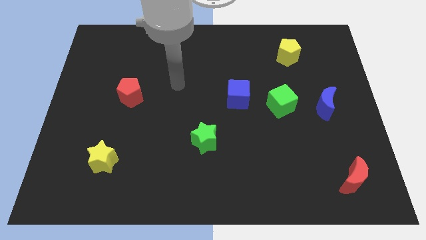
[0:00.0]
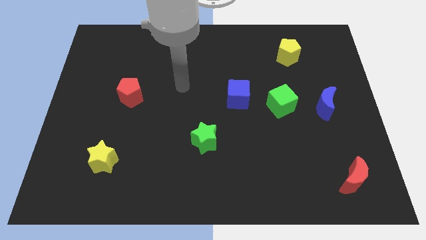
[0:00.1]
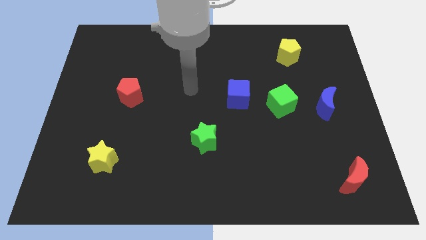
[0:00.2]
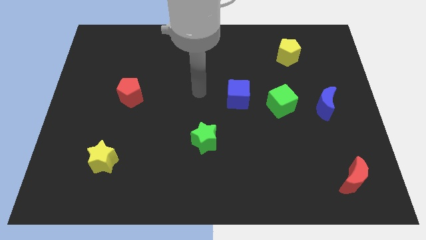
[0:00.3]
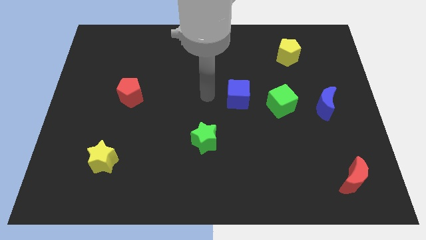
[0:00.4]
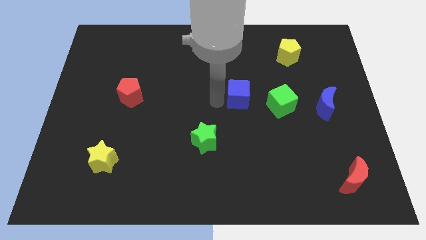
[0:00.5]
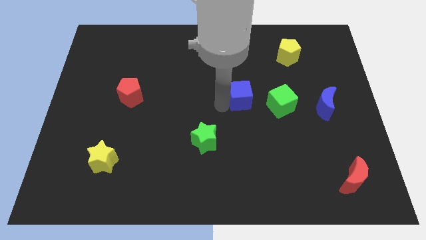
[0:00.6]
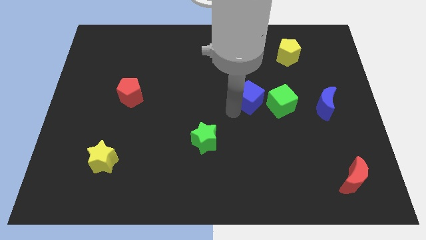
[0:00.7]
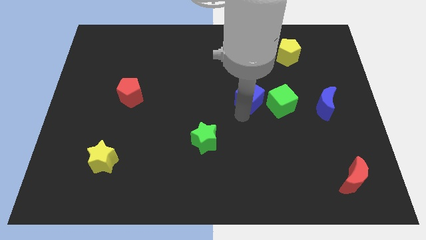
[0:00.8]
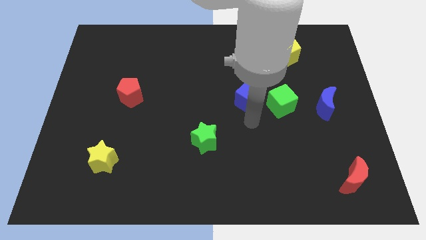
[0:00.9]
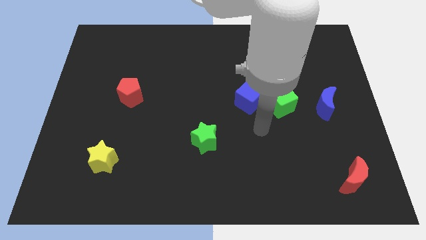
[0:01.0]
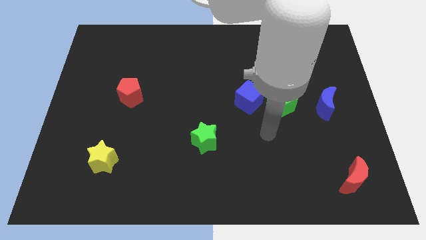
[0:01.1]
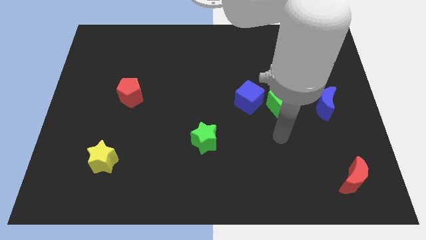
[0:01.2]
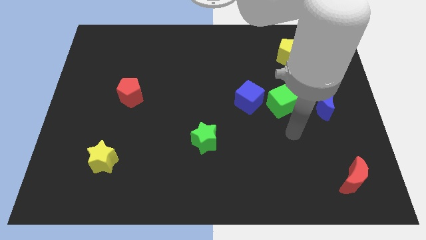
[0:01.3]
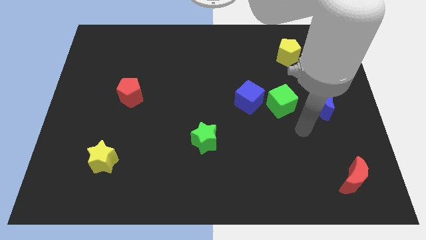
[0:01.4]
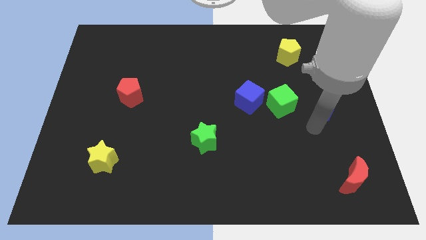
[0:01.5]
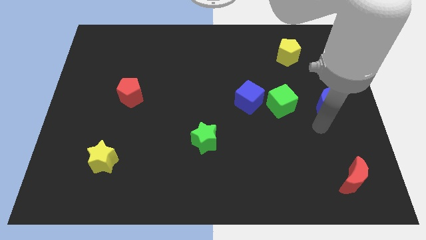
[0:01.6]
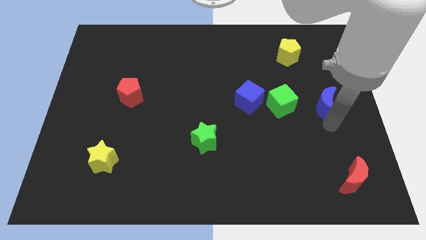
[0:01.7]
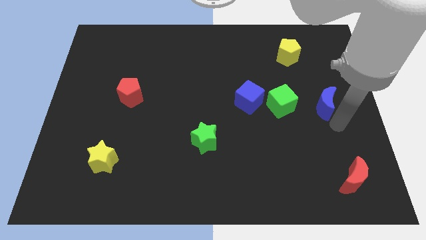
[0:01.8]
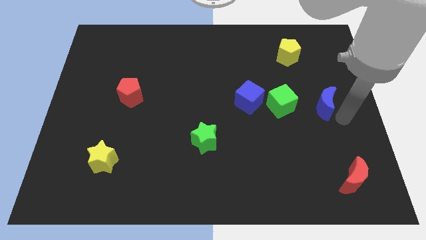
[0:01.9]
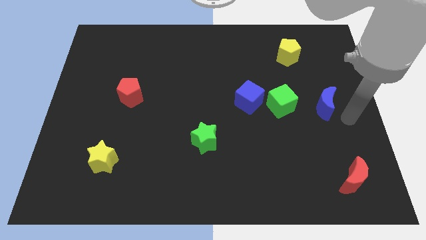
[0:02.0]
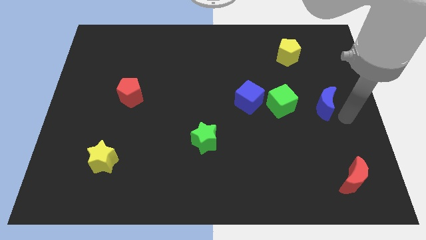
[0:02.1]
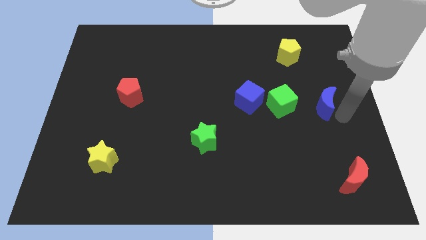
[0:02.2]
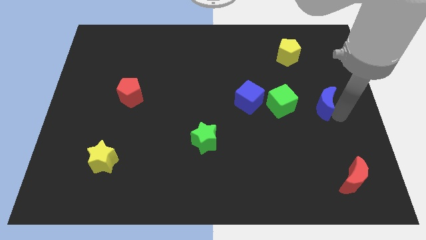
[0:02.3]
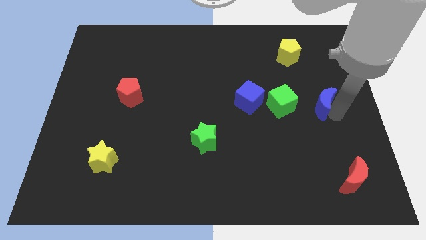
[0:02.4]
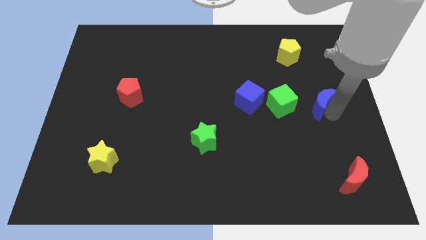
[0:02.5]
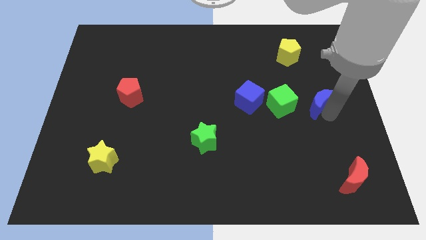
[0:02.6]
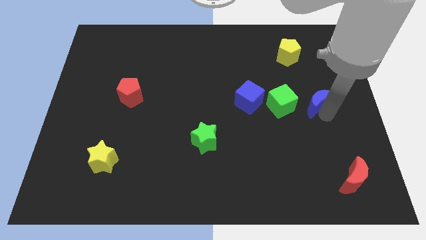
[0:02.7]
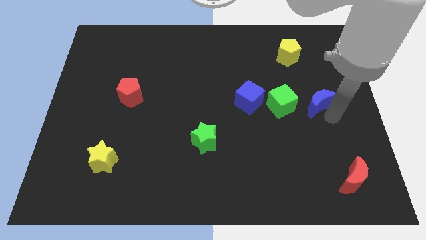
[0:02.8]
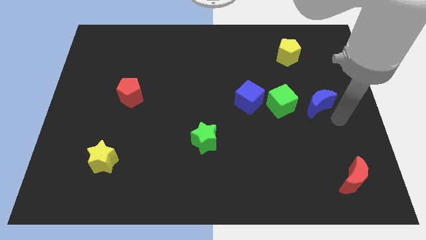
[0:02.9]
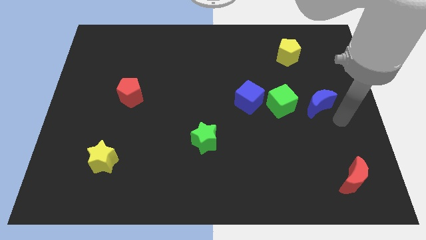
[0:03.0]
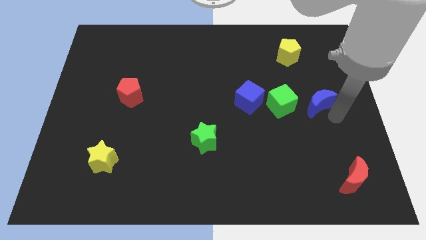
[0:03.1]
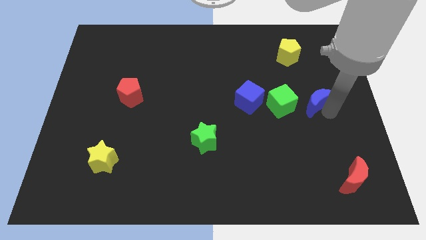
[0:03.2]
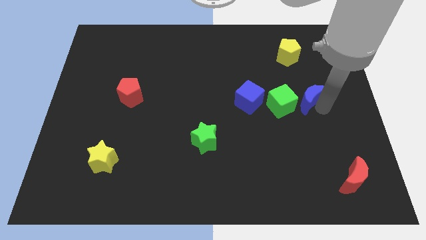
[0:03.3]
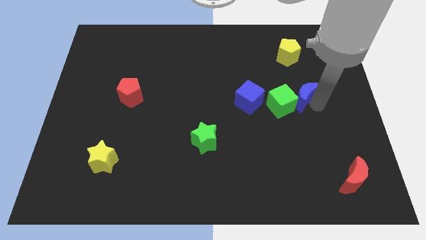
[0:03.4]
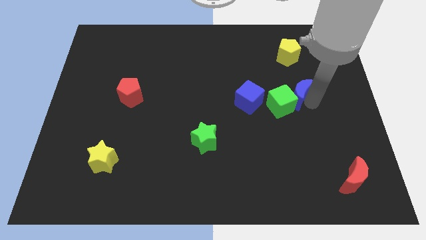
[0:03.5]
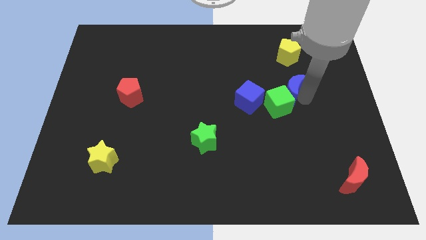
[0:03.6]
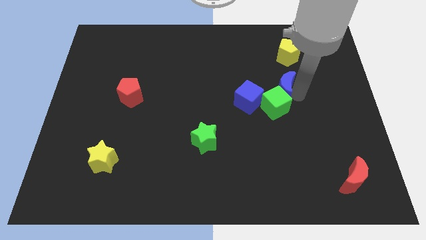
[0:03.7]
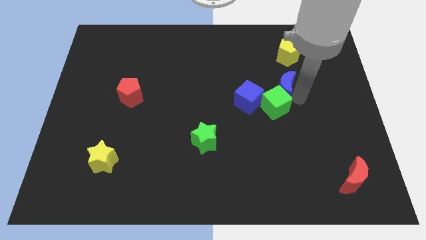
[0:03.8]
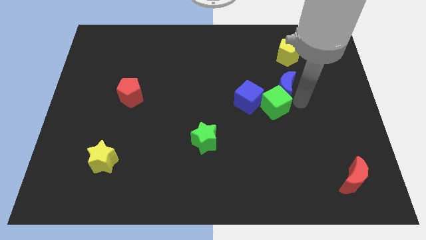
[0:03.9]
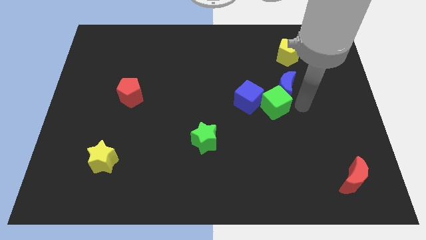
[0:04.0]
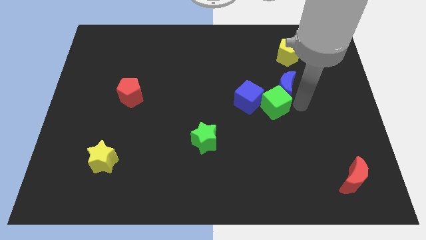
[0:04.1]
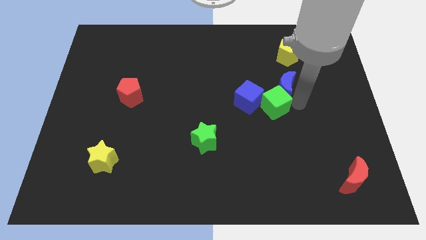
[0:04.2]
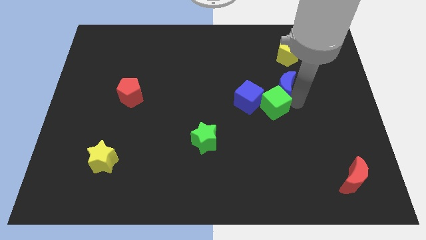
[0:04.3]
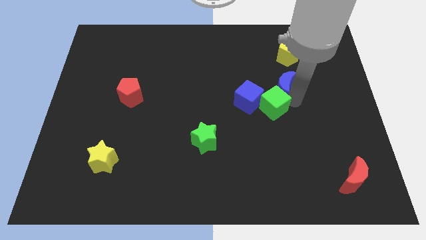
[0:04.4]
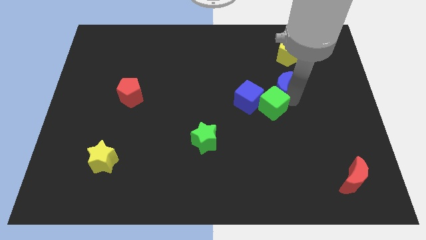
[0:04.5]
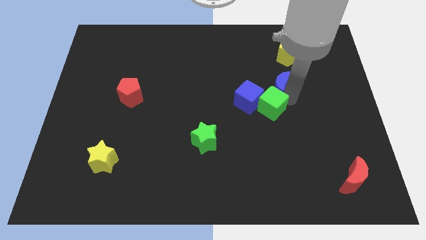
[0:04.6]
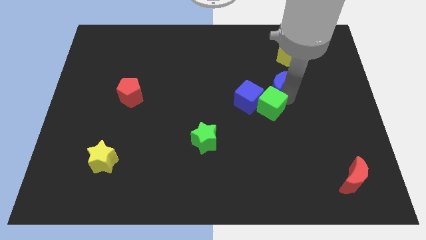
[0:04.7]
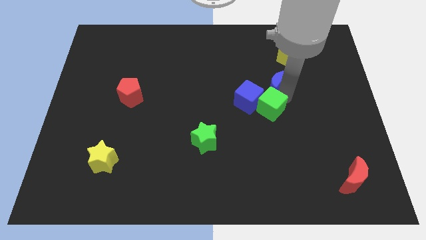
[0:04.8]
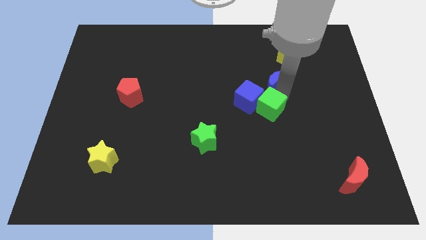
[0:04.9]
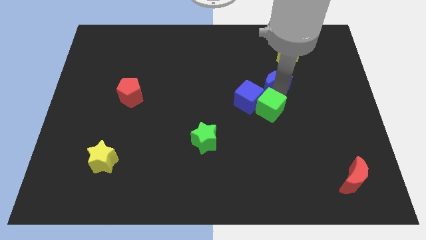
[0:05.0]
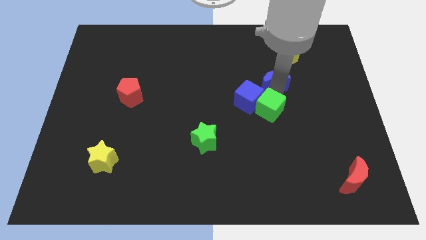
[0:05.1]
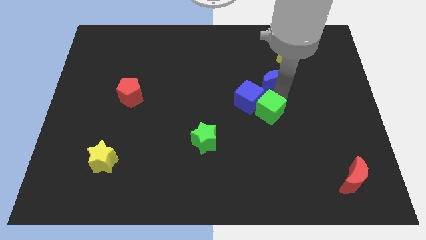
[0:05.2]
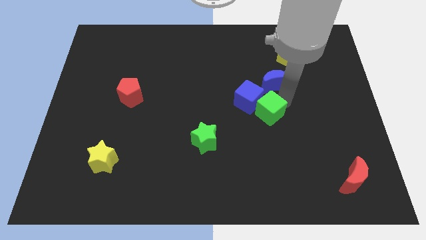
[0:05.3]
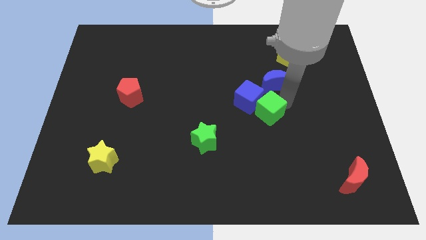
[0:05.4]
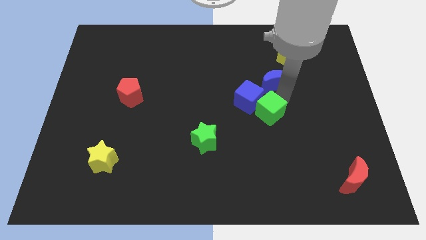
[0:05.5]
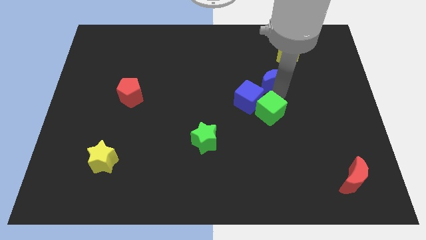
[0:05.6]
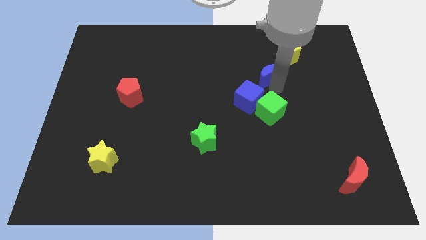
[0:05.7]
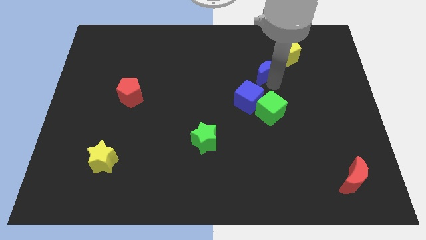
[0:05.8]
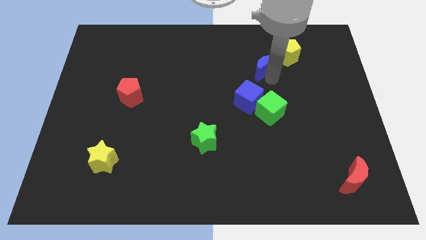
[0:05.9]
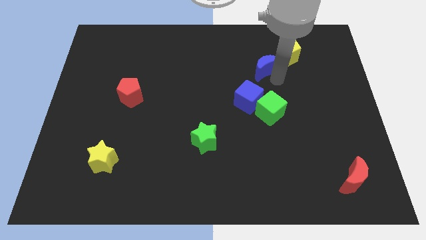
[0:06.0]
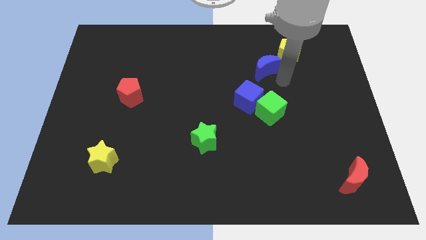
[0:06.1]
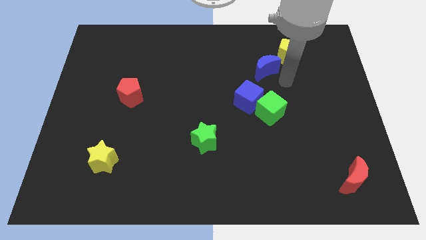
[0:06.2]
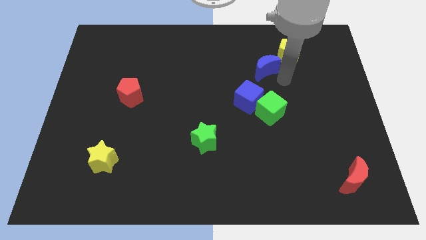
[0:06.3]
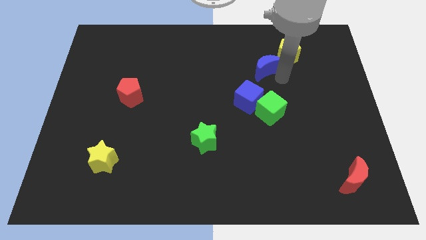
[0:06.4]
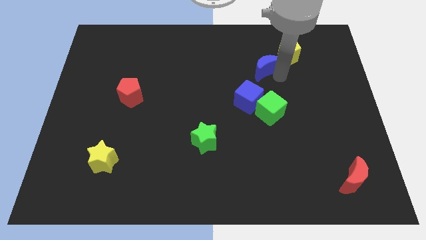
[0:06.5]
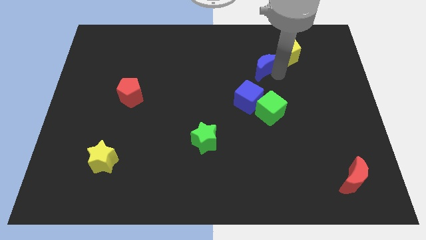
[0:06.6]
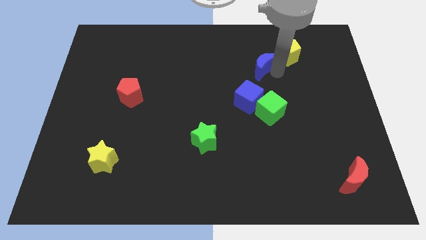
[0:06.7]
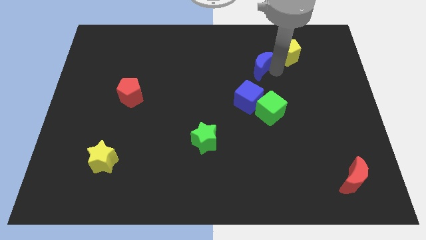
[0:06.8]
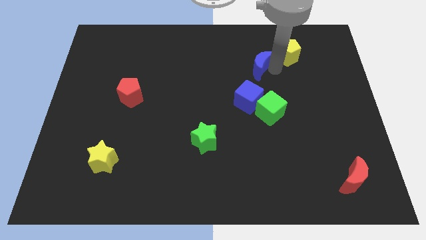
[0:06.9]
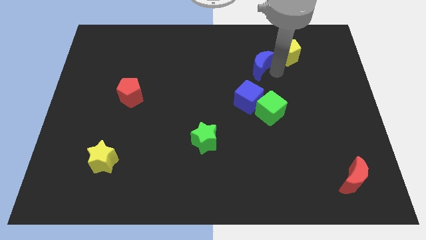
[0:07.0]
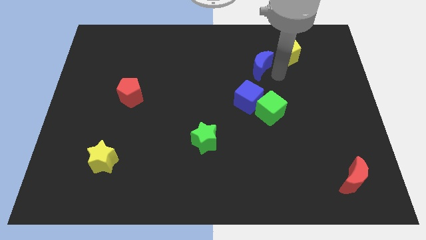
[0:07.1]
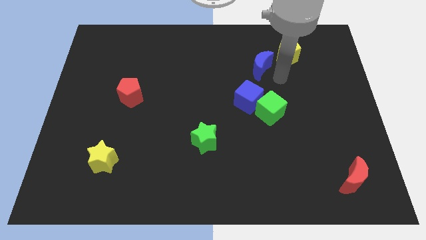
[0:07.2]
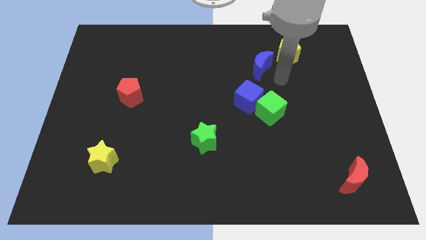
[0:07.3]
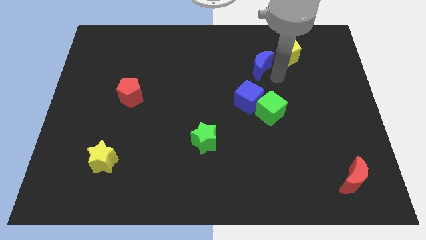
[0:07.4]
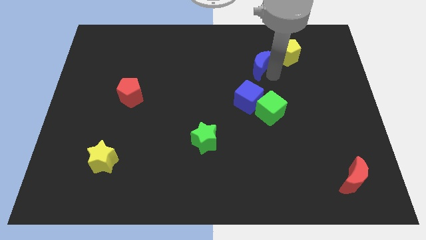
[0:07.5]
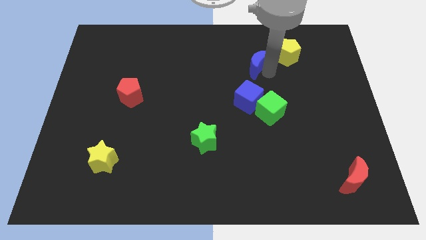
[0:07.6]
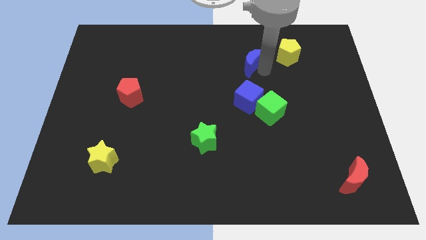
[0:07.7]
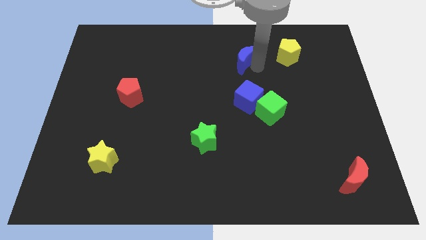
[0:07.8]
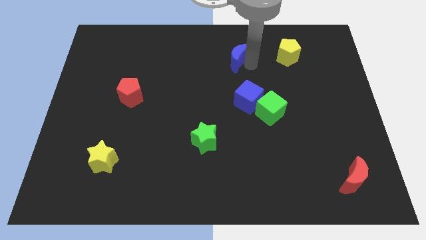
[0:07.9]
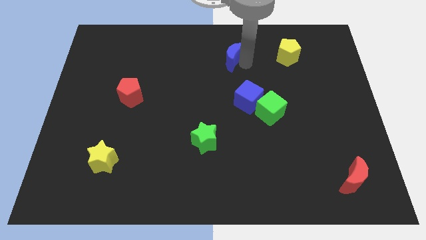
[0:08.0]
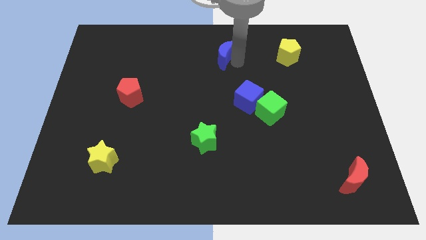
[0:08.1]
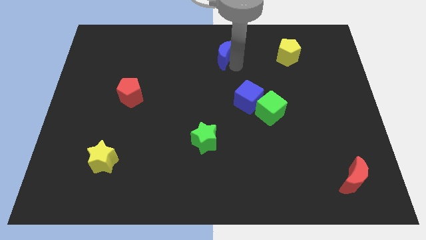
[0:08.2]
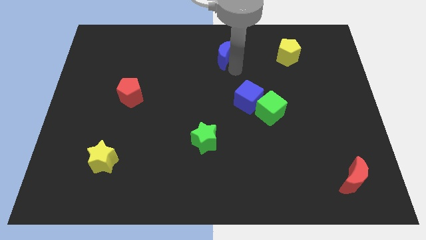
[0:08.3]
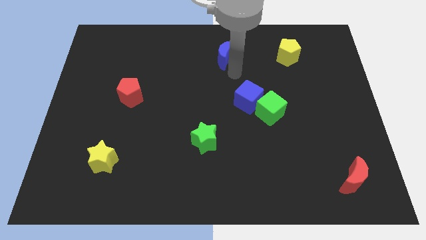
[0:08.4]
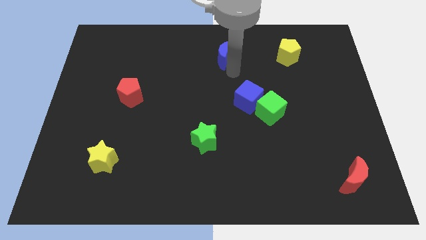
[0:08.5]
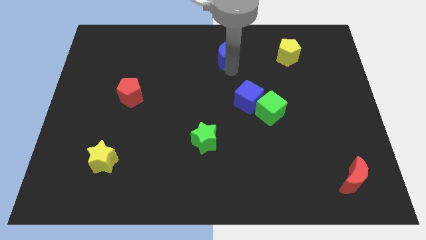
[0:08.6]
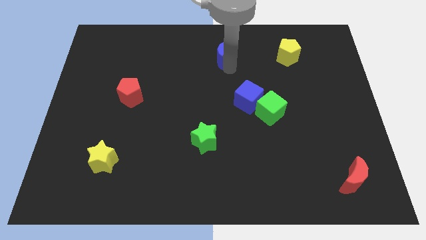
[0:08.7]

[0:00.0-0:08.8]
slide the blue moon to the top
